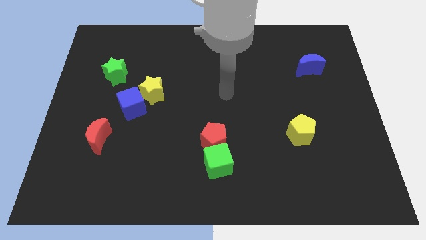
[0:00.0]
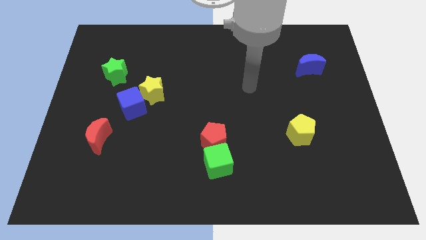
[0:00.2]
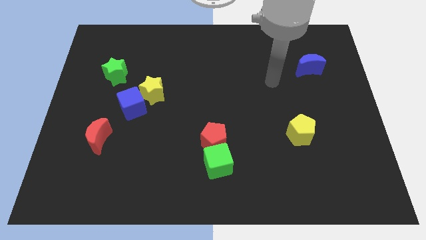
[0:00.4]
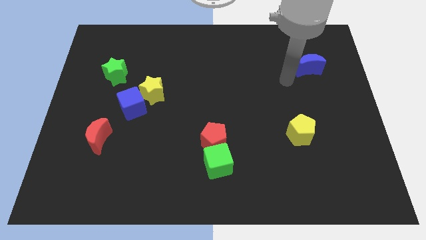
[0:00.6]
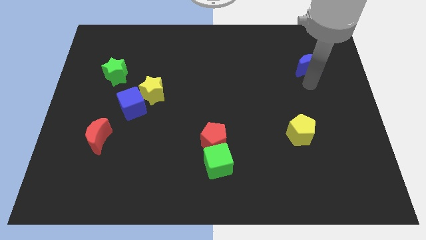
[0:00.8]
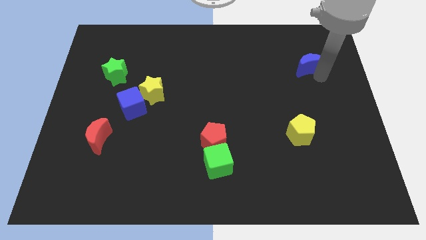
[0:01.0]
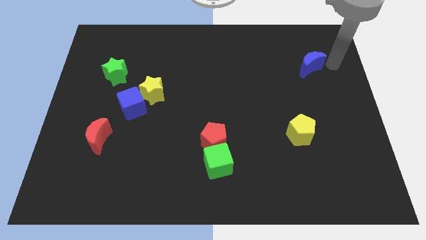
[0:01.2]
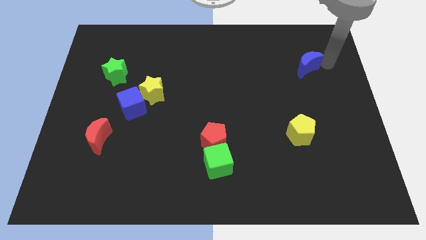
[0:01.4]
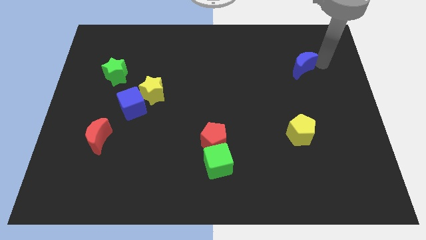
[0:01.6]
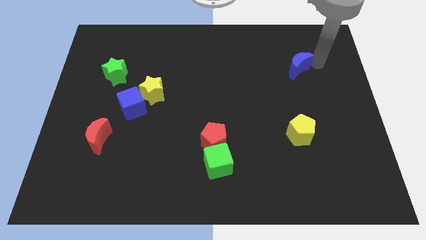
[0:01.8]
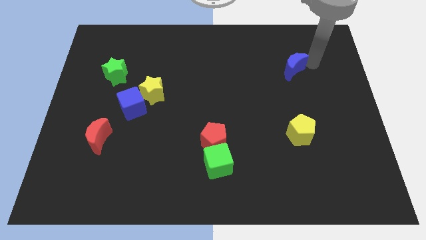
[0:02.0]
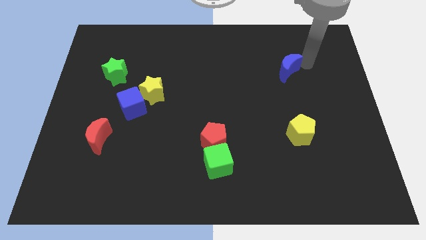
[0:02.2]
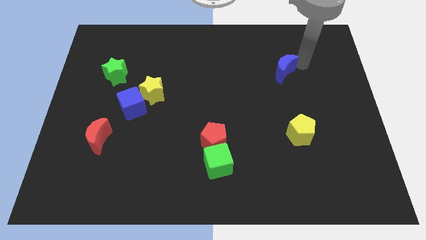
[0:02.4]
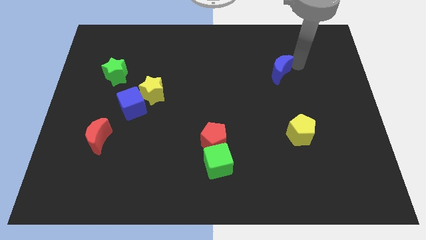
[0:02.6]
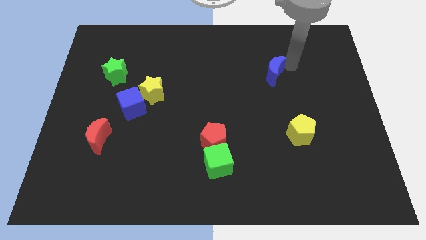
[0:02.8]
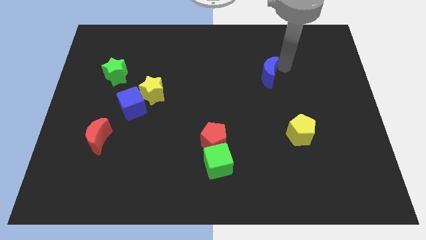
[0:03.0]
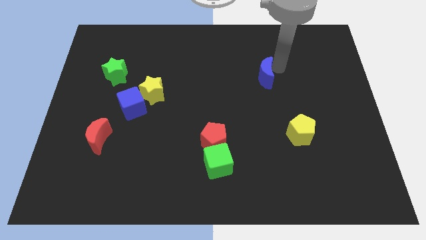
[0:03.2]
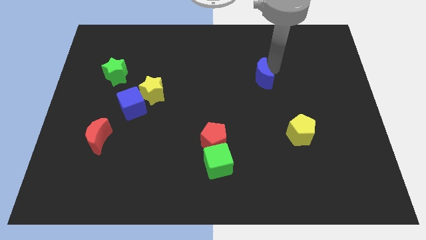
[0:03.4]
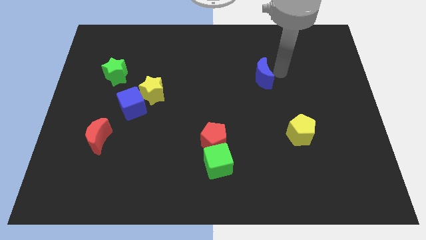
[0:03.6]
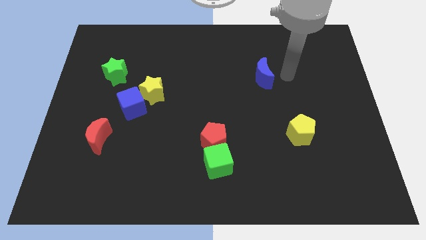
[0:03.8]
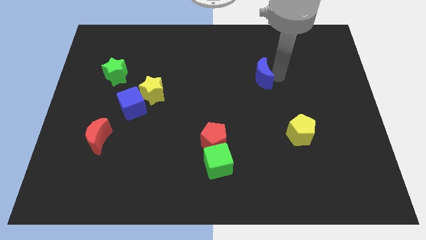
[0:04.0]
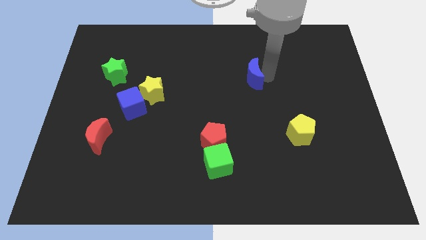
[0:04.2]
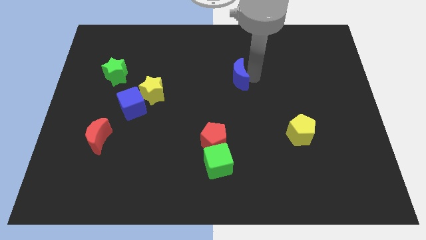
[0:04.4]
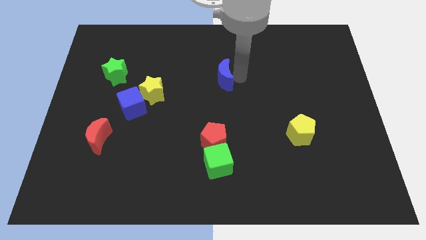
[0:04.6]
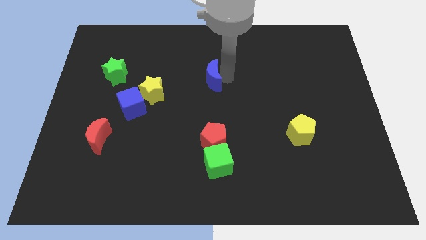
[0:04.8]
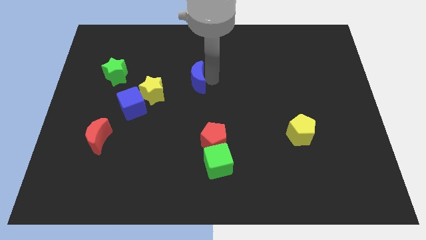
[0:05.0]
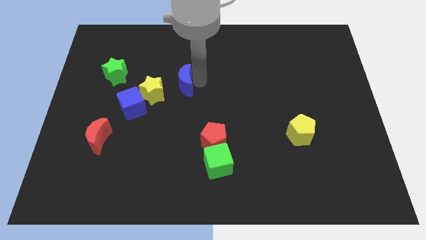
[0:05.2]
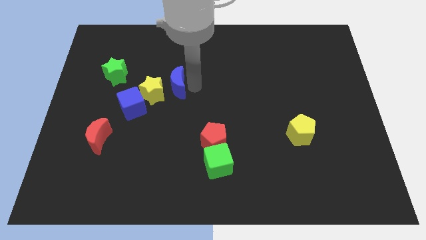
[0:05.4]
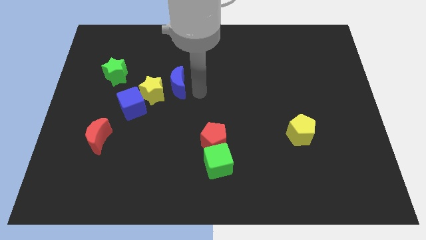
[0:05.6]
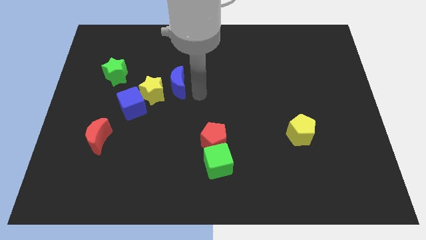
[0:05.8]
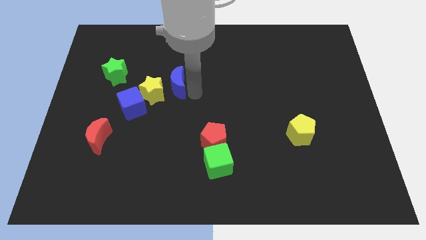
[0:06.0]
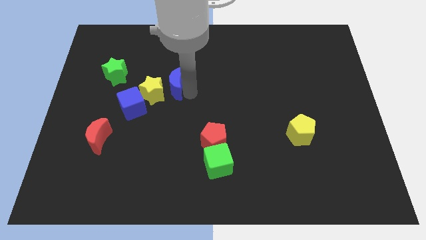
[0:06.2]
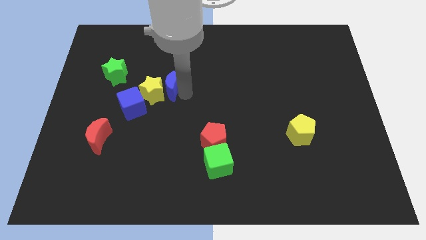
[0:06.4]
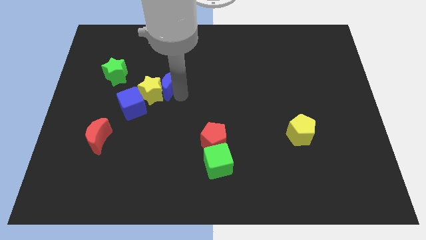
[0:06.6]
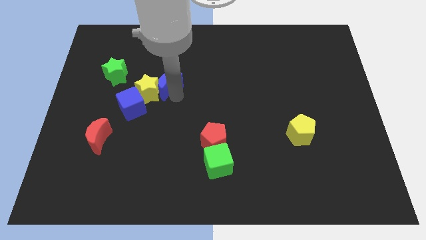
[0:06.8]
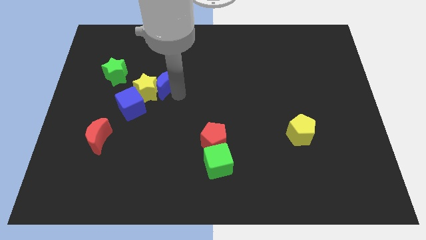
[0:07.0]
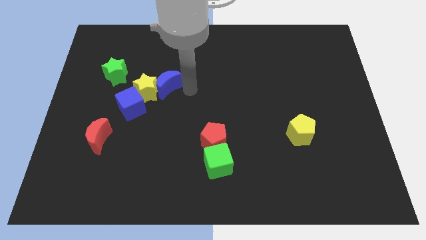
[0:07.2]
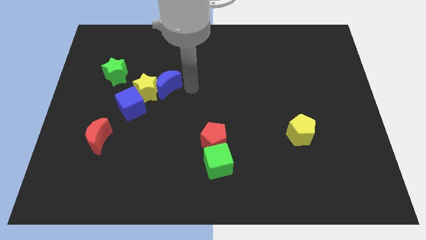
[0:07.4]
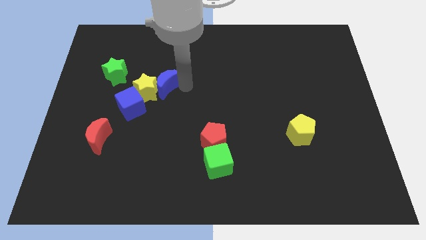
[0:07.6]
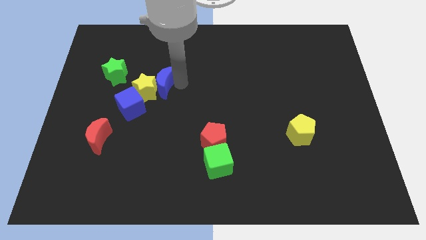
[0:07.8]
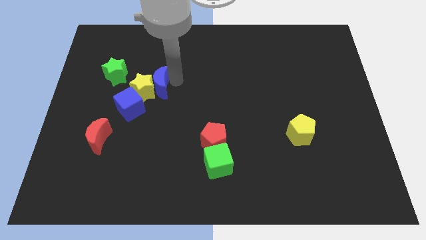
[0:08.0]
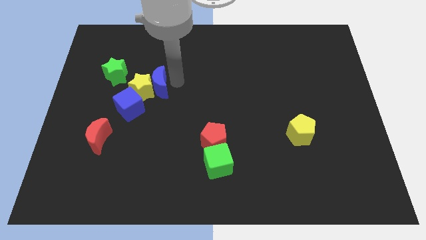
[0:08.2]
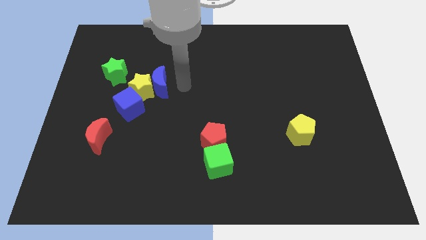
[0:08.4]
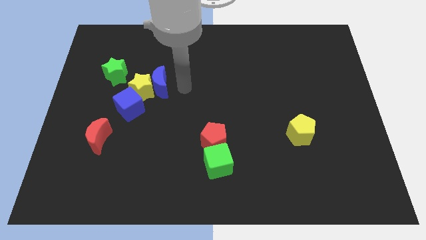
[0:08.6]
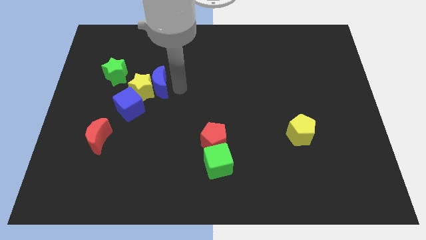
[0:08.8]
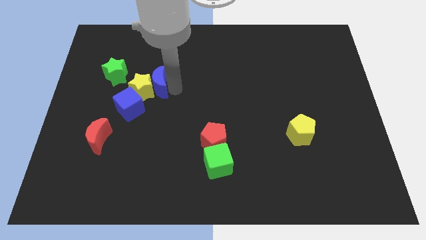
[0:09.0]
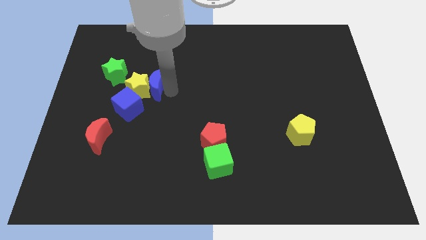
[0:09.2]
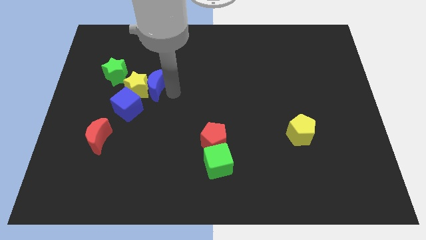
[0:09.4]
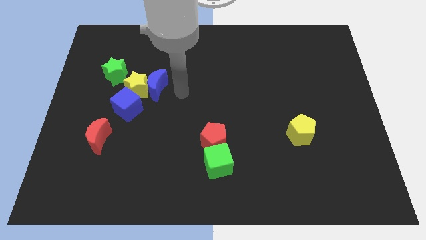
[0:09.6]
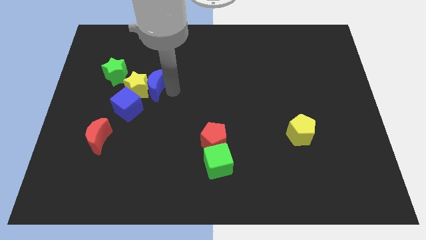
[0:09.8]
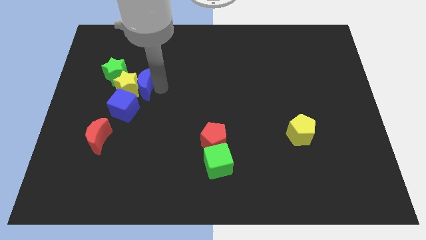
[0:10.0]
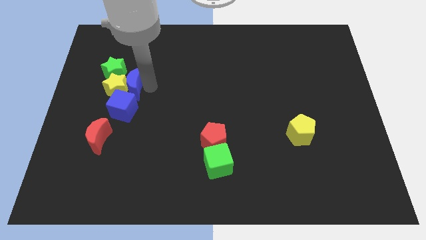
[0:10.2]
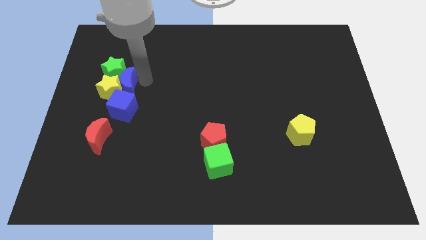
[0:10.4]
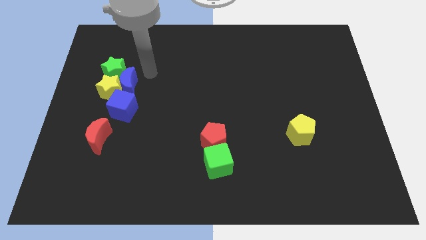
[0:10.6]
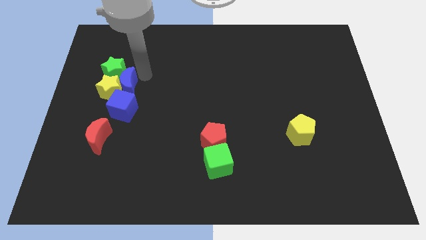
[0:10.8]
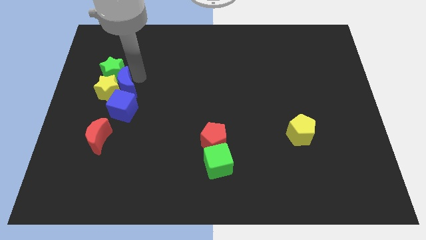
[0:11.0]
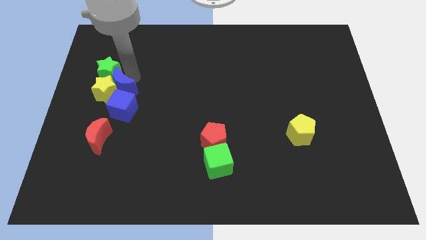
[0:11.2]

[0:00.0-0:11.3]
move the blue moon above the red moon

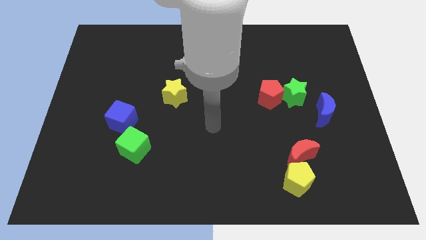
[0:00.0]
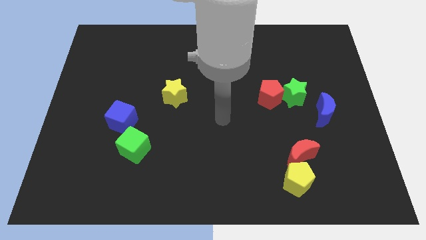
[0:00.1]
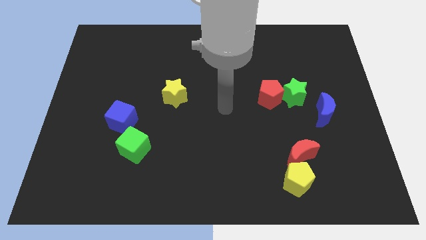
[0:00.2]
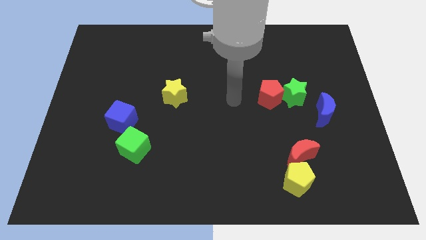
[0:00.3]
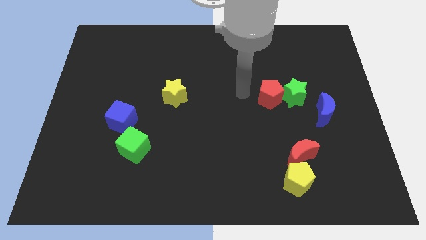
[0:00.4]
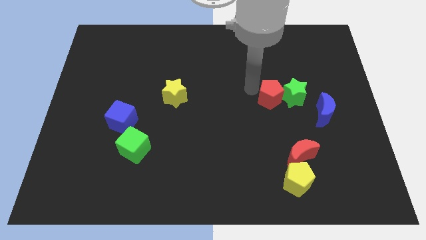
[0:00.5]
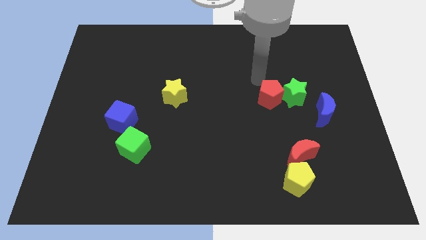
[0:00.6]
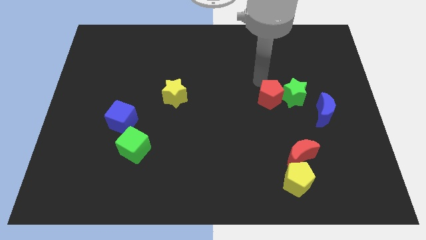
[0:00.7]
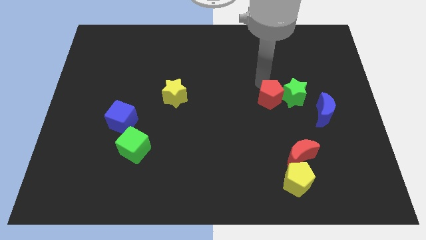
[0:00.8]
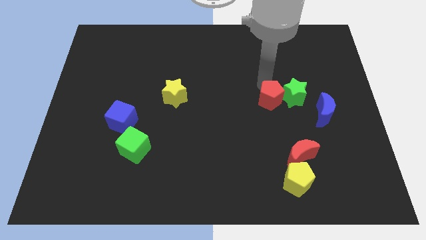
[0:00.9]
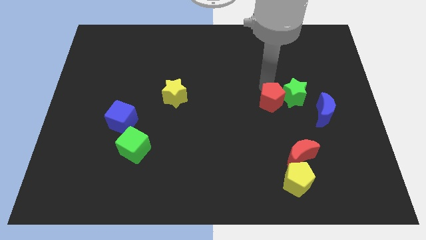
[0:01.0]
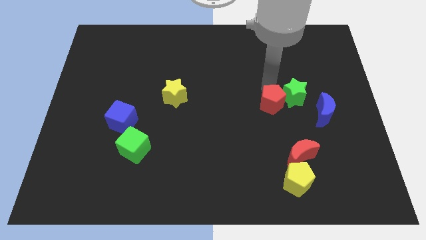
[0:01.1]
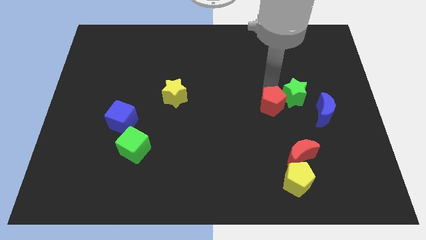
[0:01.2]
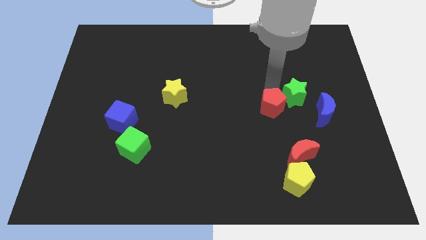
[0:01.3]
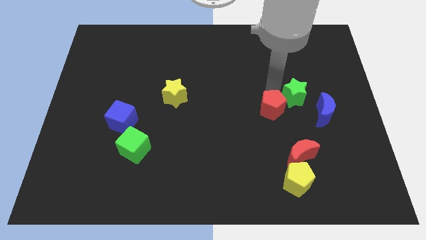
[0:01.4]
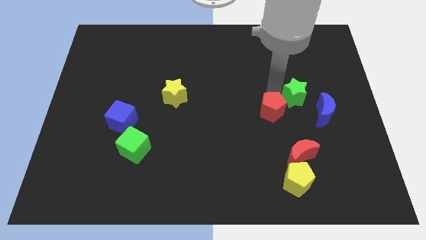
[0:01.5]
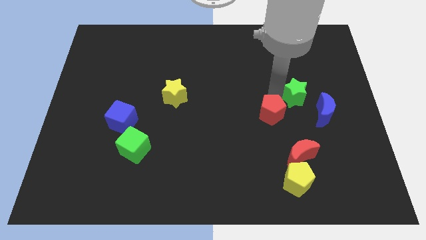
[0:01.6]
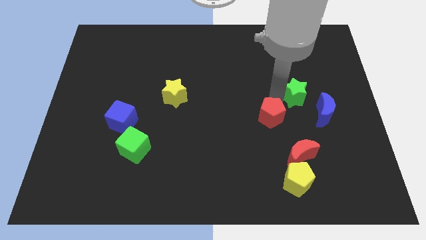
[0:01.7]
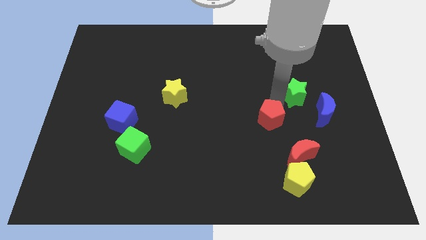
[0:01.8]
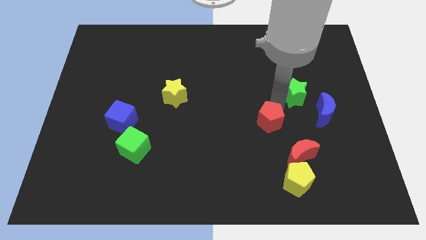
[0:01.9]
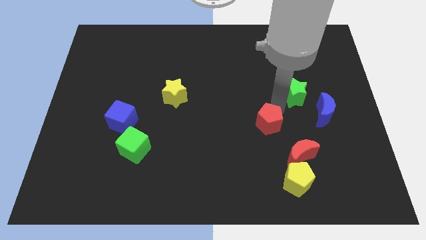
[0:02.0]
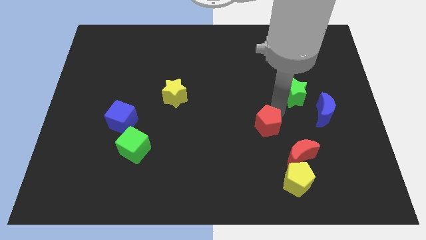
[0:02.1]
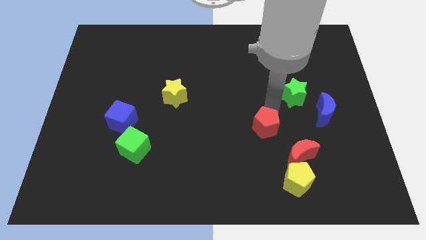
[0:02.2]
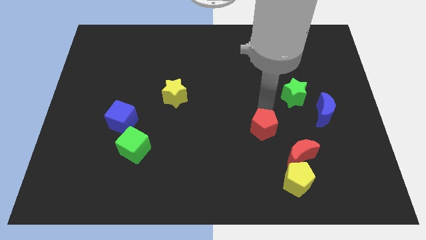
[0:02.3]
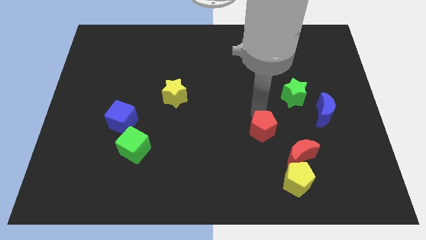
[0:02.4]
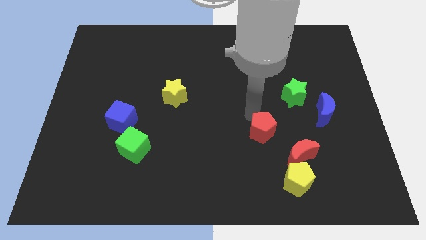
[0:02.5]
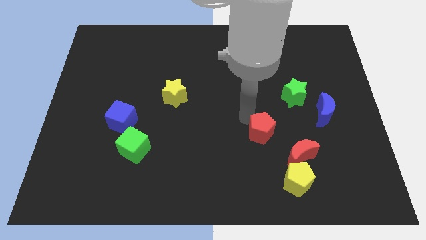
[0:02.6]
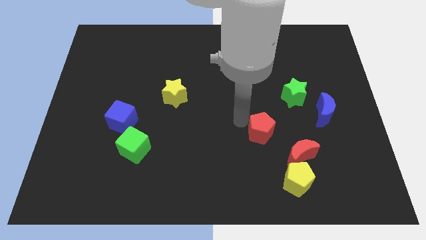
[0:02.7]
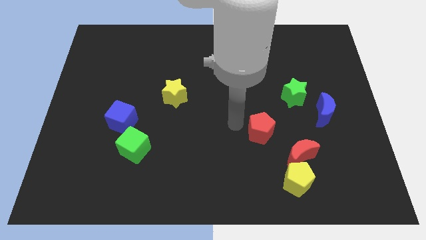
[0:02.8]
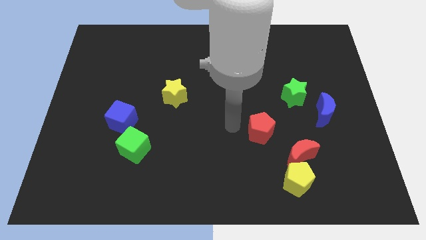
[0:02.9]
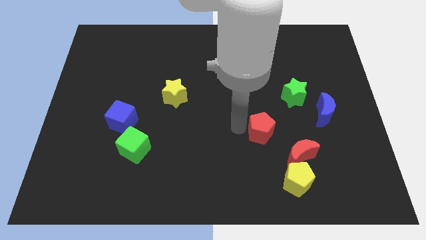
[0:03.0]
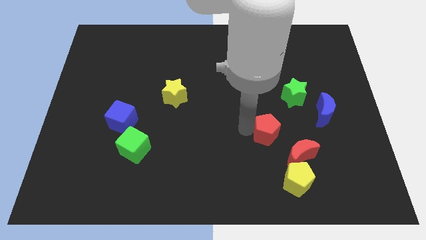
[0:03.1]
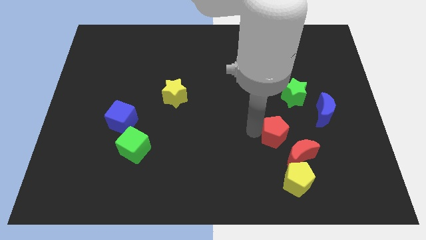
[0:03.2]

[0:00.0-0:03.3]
slide the red pentagon to the top side of the yellow pentagon
